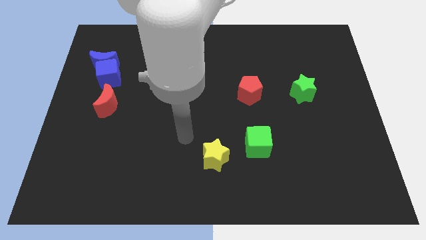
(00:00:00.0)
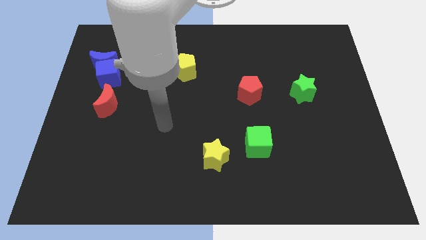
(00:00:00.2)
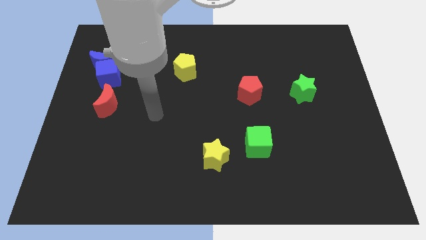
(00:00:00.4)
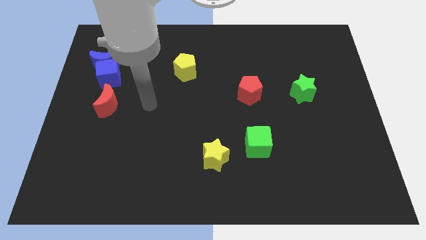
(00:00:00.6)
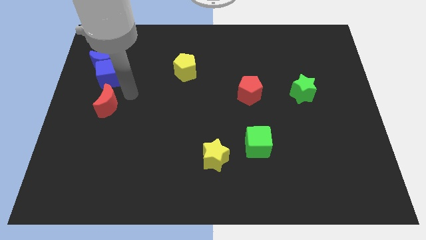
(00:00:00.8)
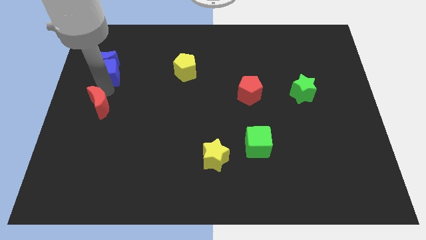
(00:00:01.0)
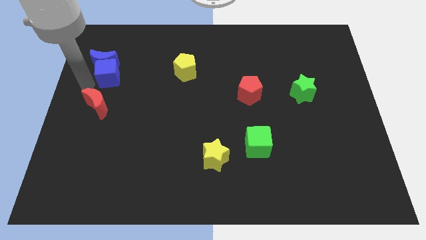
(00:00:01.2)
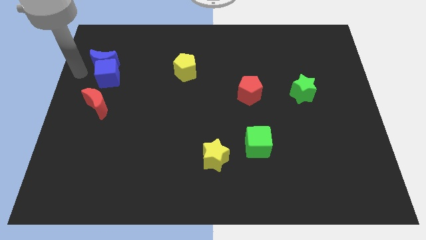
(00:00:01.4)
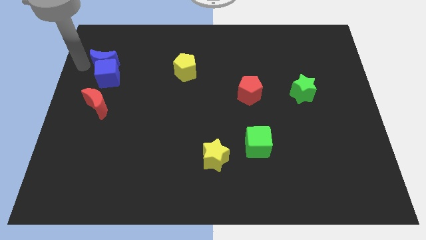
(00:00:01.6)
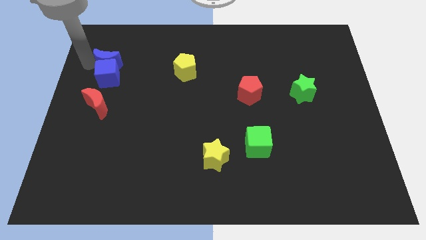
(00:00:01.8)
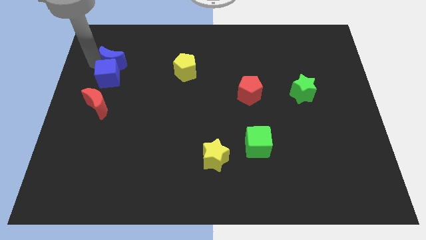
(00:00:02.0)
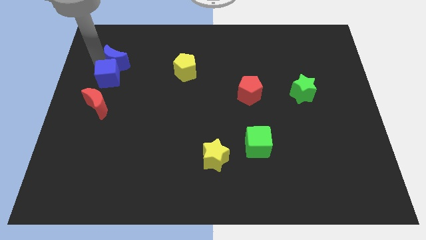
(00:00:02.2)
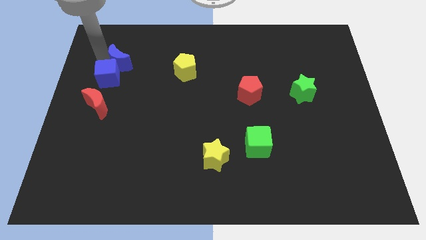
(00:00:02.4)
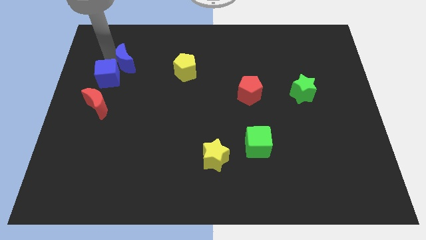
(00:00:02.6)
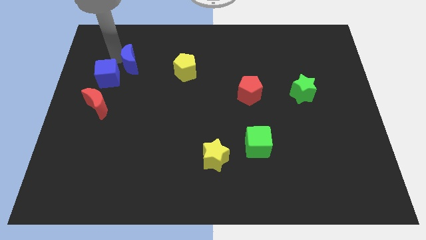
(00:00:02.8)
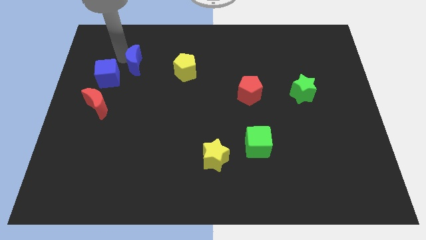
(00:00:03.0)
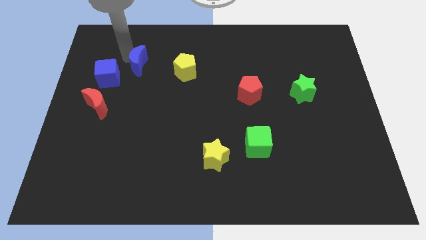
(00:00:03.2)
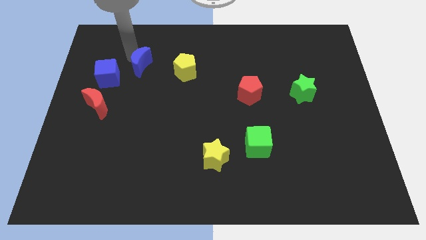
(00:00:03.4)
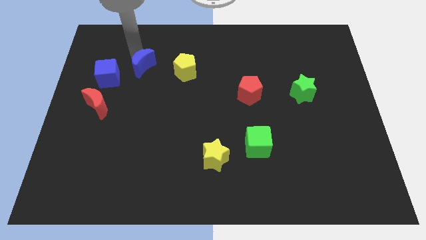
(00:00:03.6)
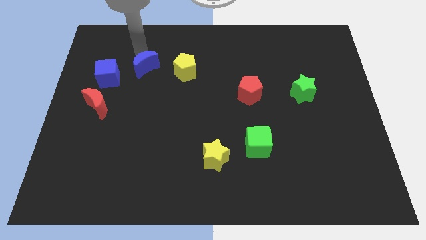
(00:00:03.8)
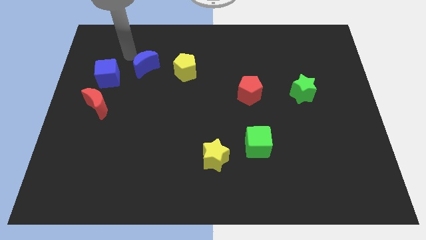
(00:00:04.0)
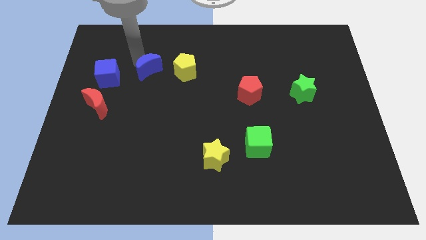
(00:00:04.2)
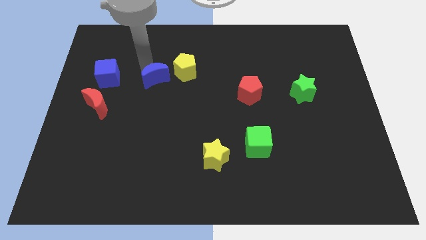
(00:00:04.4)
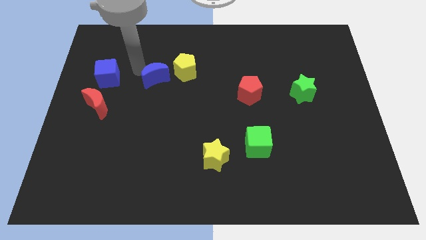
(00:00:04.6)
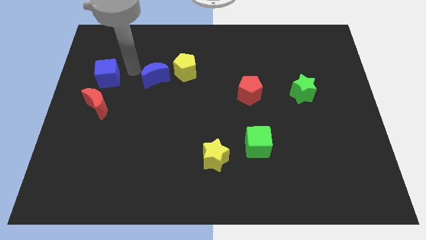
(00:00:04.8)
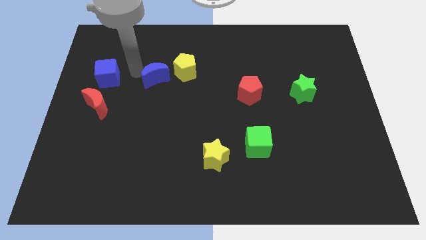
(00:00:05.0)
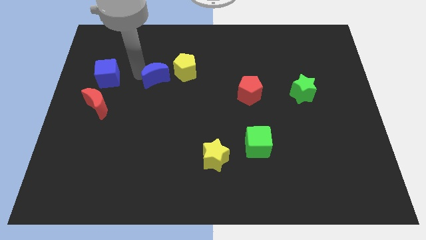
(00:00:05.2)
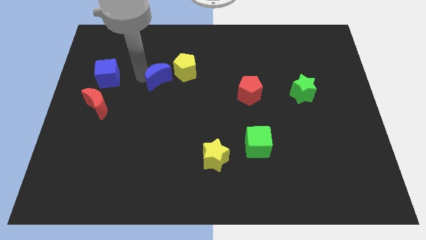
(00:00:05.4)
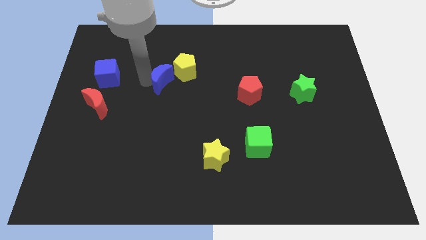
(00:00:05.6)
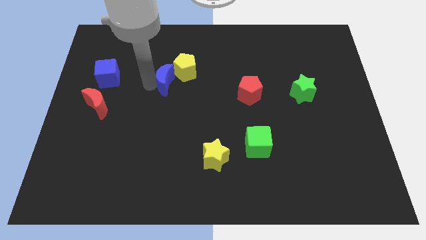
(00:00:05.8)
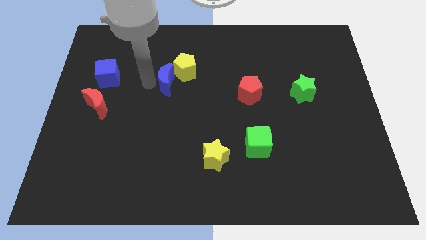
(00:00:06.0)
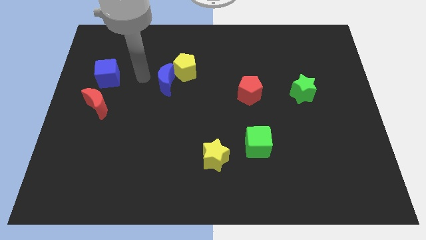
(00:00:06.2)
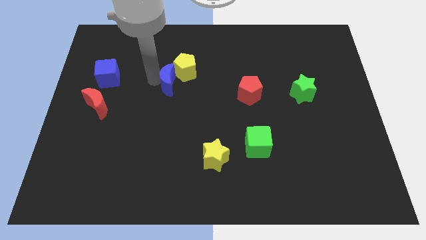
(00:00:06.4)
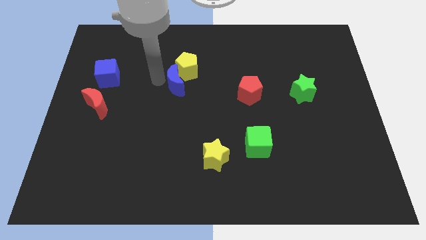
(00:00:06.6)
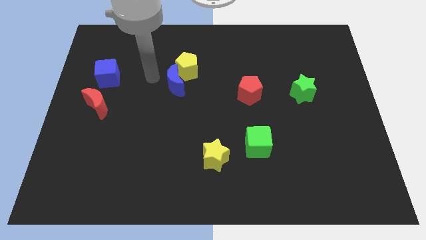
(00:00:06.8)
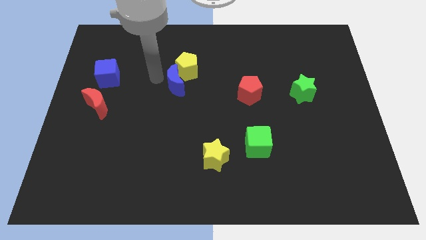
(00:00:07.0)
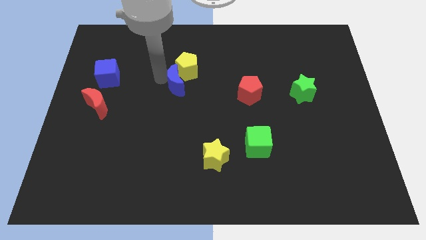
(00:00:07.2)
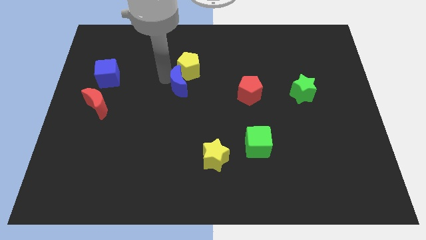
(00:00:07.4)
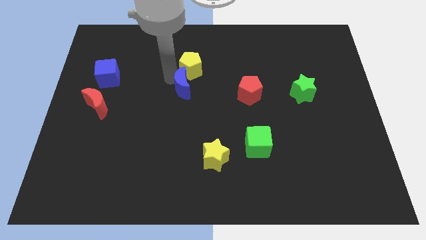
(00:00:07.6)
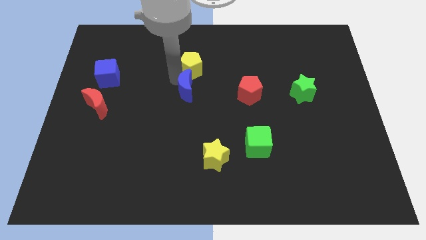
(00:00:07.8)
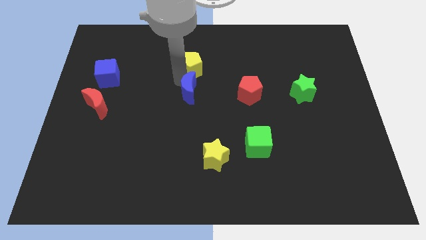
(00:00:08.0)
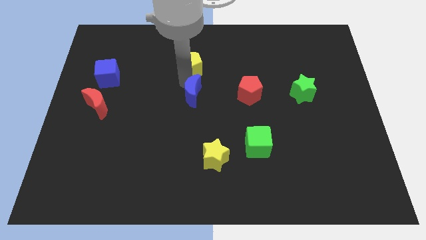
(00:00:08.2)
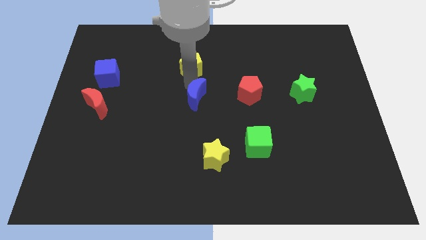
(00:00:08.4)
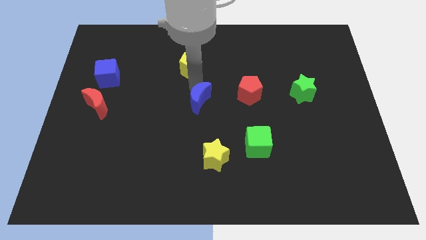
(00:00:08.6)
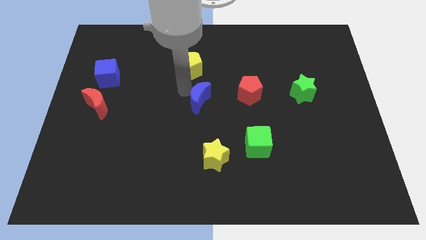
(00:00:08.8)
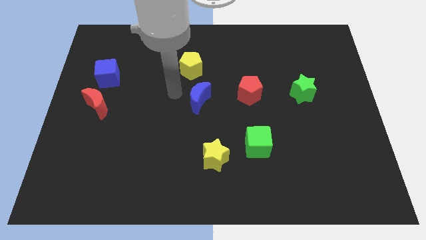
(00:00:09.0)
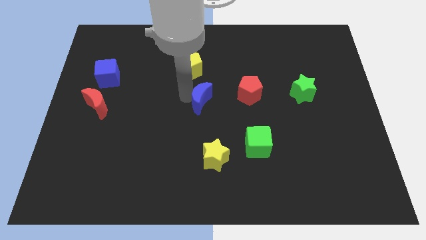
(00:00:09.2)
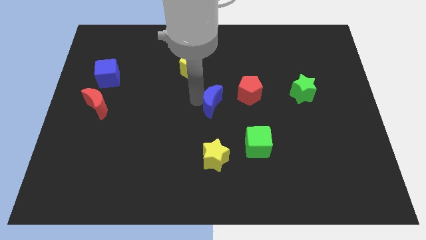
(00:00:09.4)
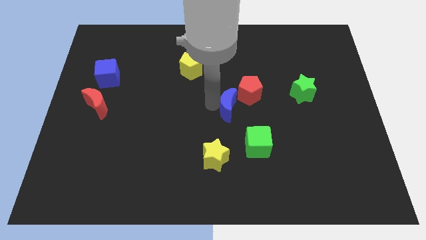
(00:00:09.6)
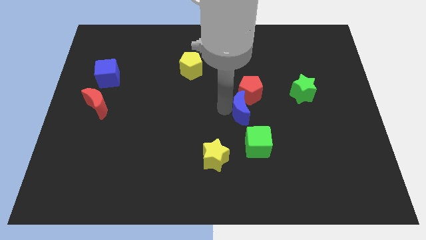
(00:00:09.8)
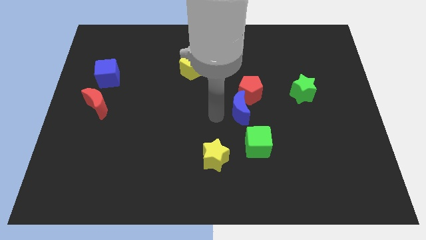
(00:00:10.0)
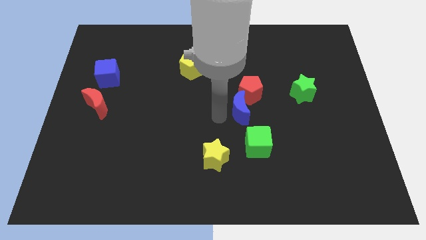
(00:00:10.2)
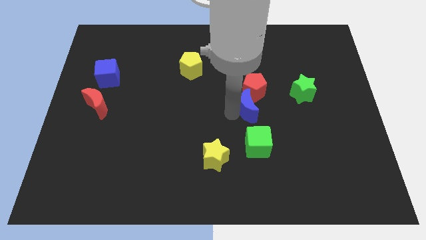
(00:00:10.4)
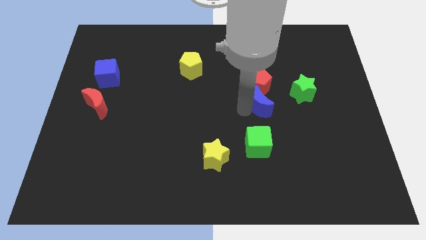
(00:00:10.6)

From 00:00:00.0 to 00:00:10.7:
slide the blue moon diagonally down and to the right of the red pentagon

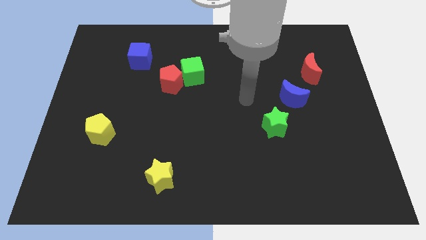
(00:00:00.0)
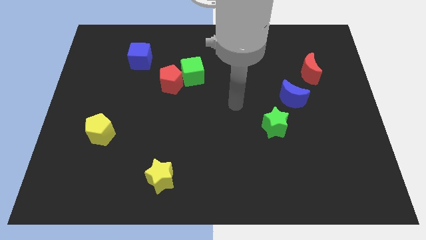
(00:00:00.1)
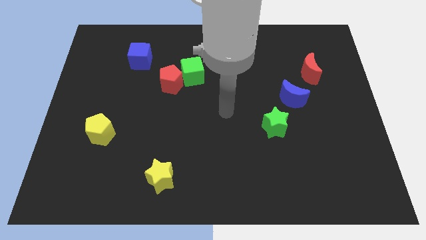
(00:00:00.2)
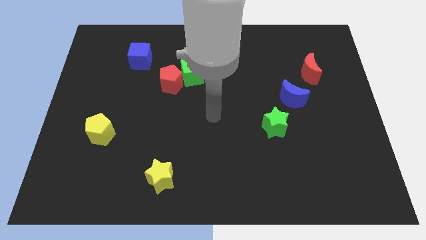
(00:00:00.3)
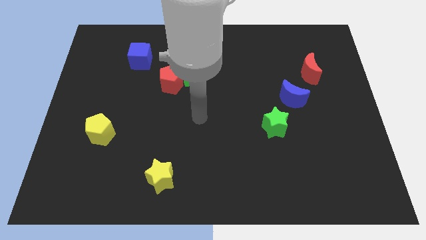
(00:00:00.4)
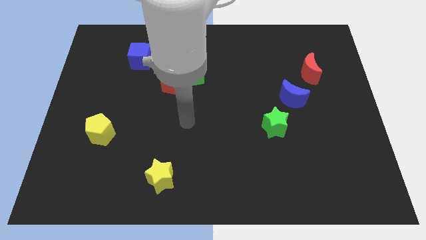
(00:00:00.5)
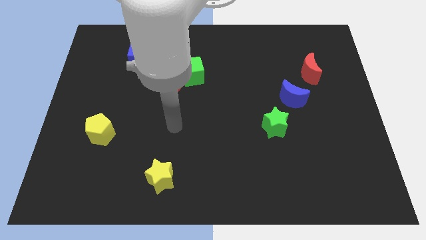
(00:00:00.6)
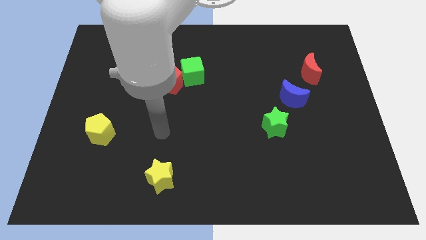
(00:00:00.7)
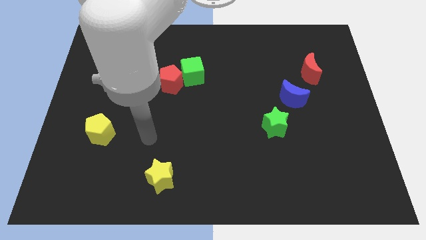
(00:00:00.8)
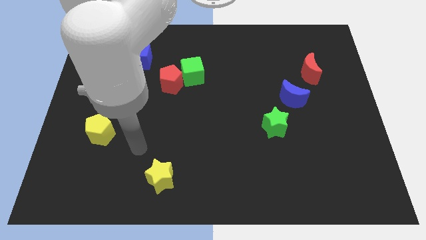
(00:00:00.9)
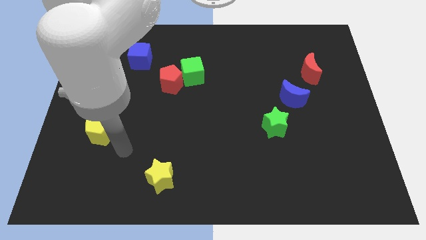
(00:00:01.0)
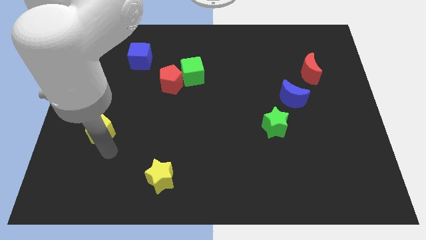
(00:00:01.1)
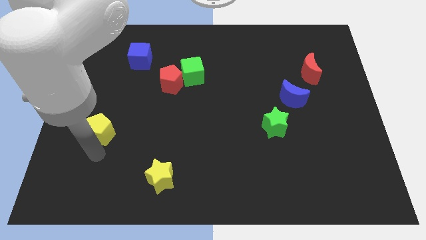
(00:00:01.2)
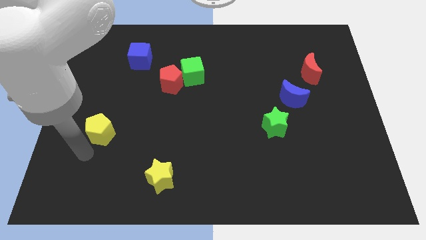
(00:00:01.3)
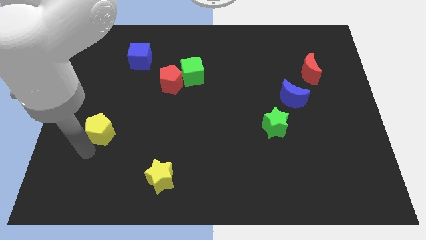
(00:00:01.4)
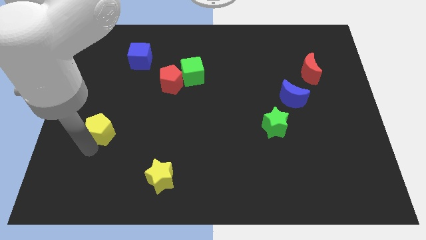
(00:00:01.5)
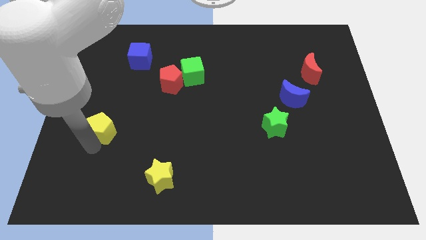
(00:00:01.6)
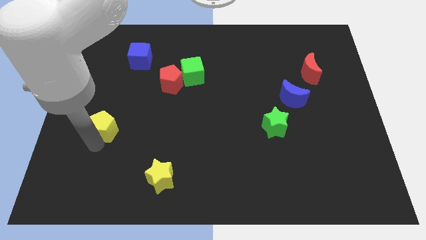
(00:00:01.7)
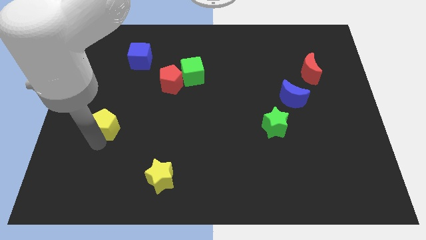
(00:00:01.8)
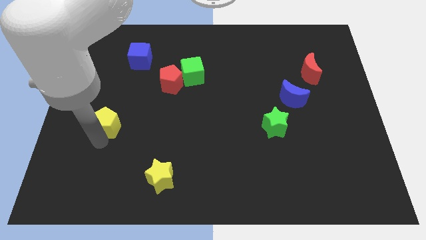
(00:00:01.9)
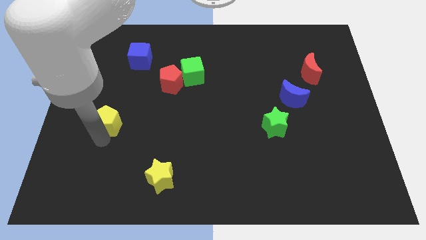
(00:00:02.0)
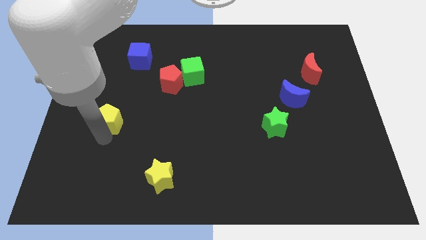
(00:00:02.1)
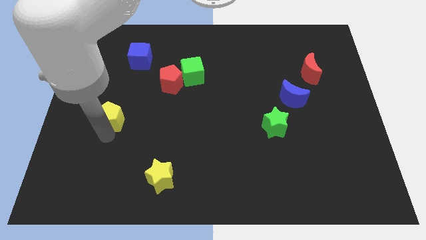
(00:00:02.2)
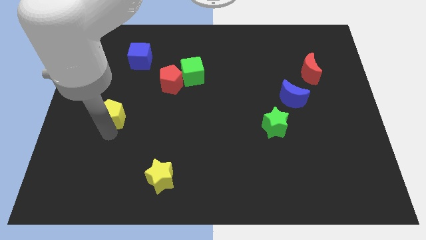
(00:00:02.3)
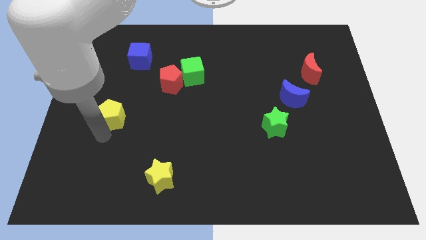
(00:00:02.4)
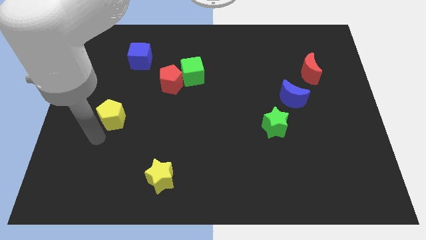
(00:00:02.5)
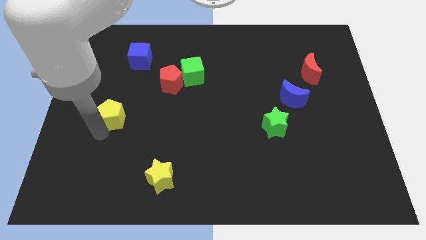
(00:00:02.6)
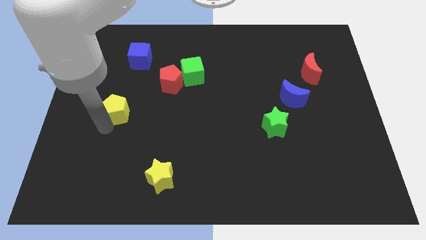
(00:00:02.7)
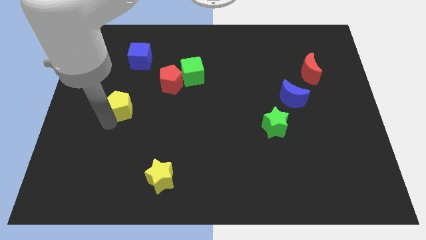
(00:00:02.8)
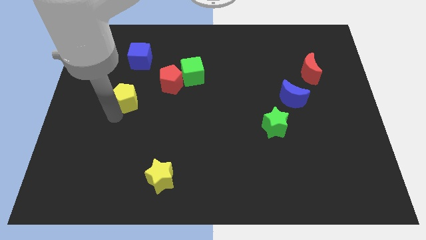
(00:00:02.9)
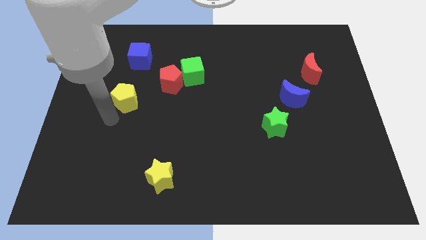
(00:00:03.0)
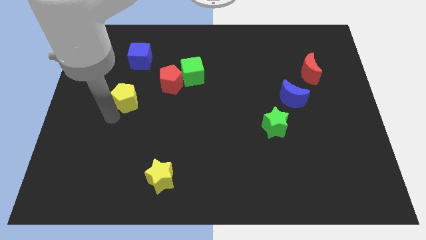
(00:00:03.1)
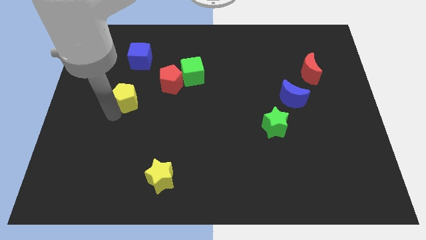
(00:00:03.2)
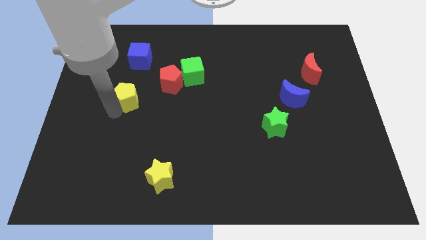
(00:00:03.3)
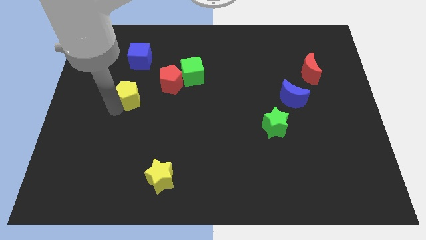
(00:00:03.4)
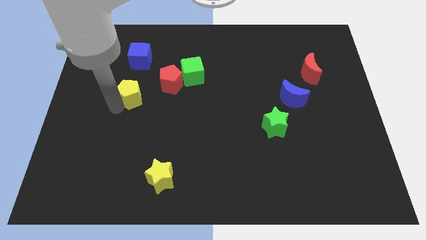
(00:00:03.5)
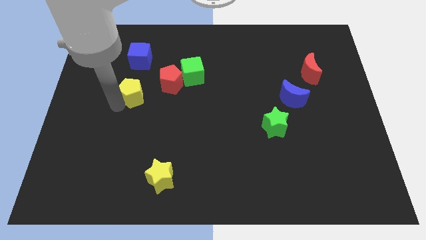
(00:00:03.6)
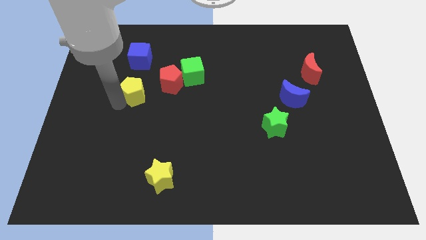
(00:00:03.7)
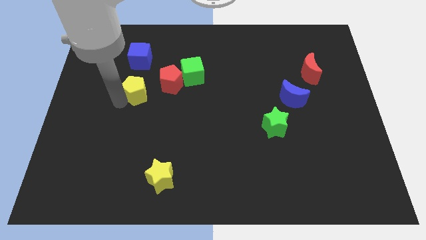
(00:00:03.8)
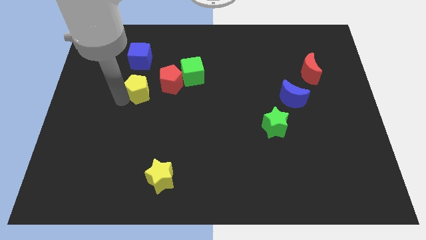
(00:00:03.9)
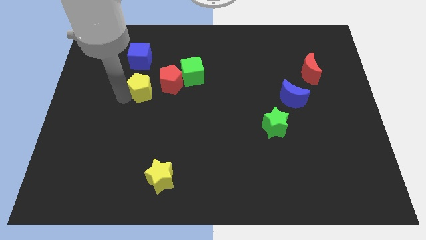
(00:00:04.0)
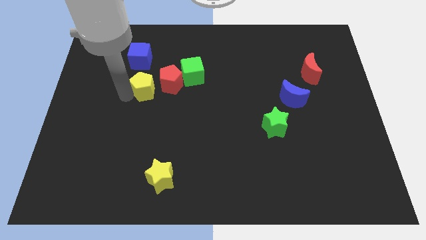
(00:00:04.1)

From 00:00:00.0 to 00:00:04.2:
put the yellow pentagon to the left side of the green cube
